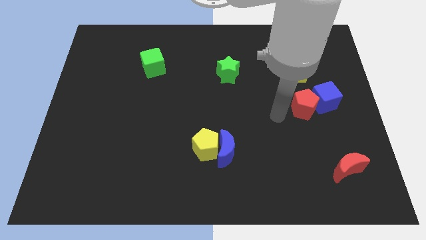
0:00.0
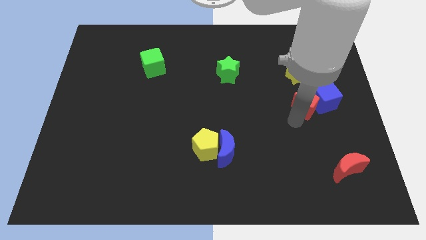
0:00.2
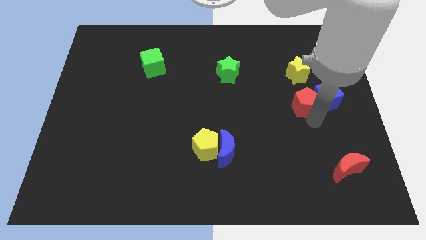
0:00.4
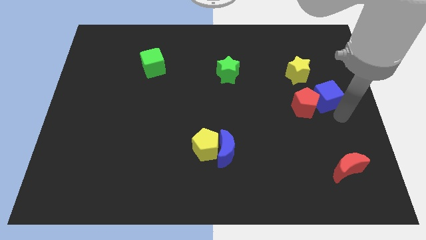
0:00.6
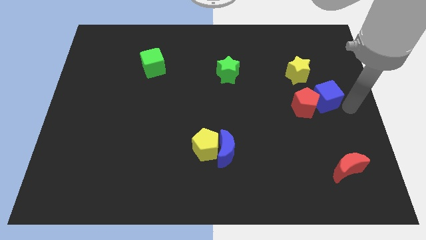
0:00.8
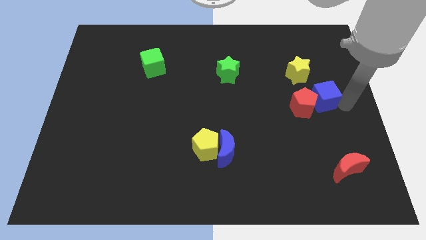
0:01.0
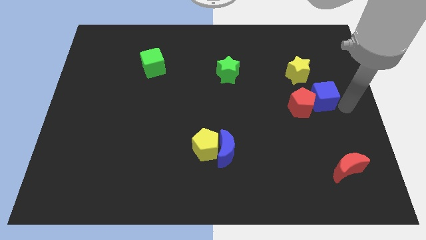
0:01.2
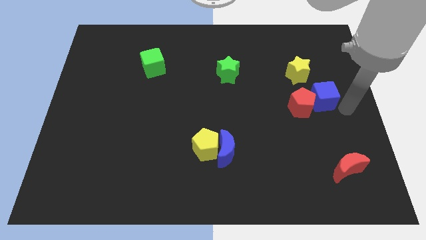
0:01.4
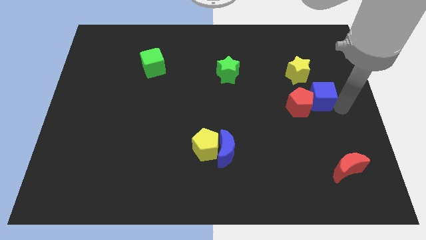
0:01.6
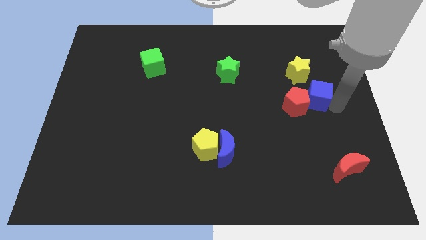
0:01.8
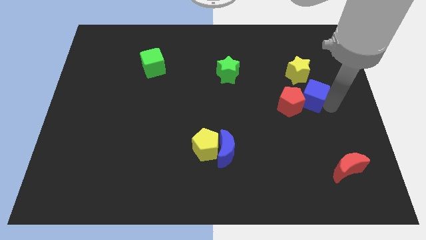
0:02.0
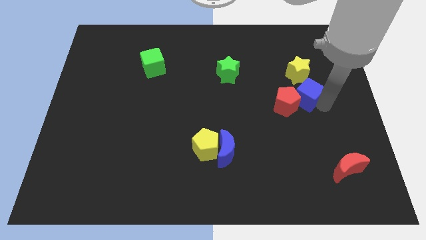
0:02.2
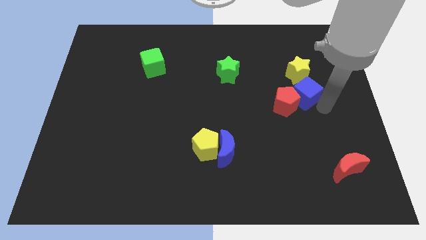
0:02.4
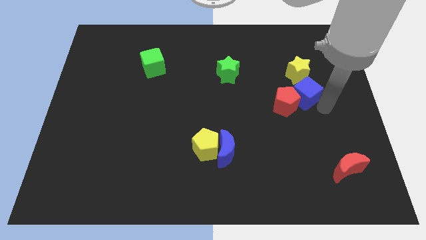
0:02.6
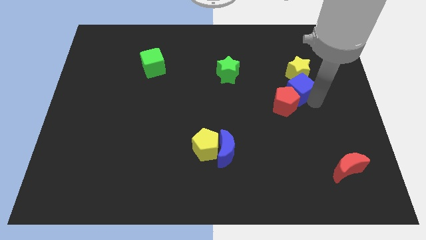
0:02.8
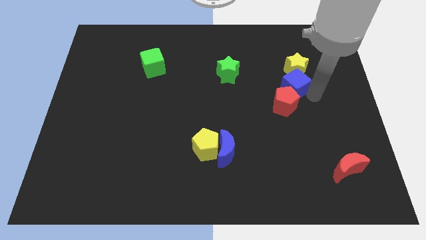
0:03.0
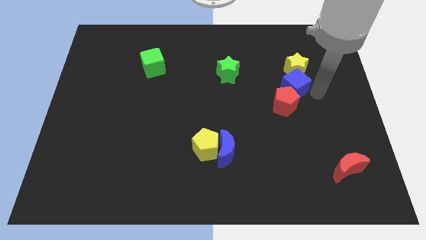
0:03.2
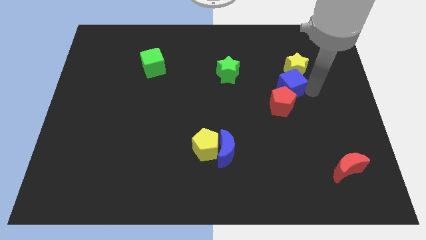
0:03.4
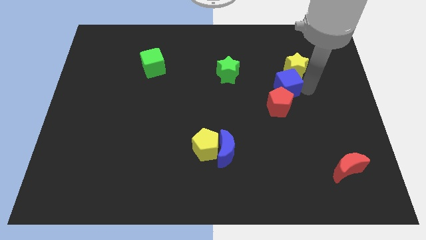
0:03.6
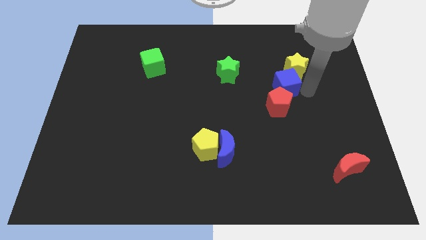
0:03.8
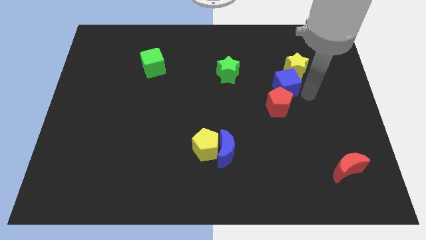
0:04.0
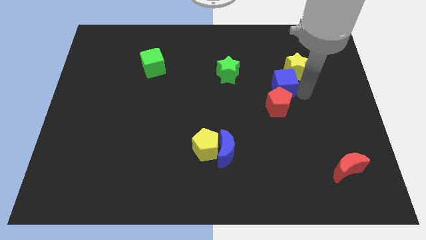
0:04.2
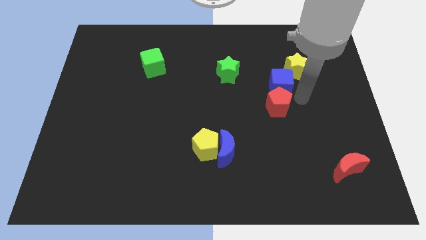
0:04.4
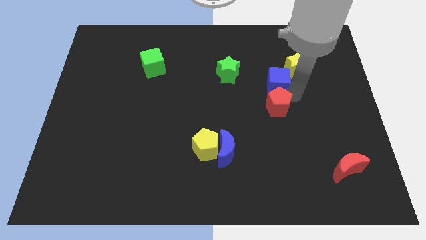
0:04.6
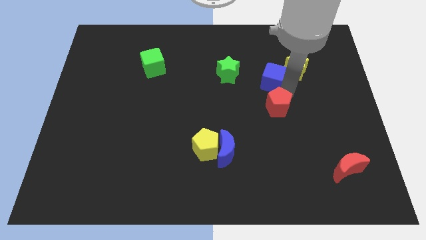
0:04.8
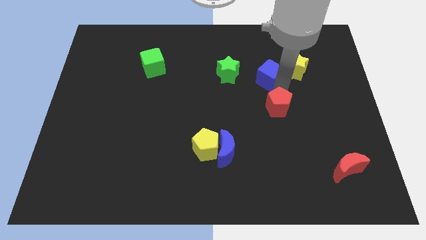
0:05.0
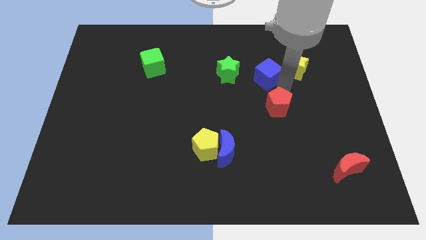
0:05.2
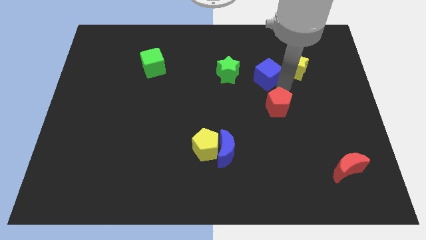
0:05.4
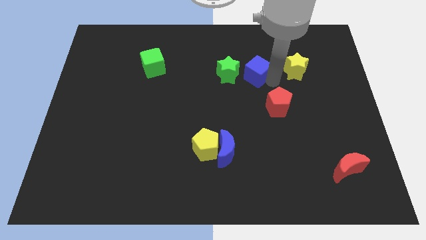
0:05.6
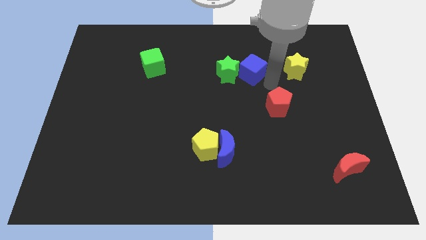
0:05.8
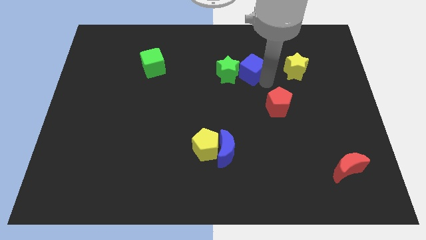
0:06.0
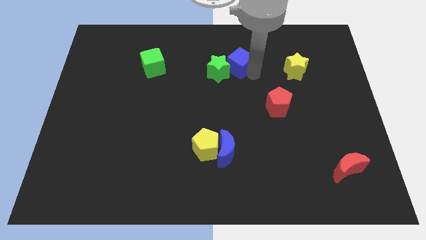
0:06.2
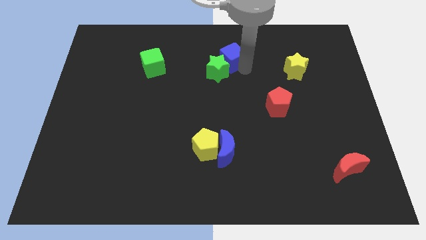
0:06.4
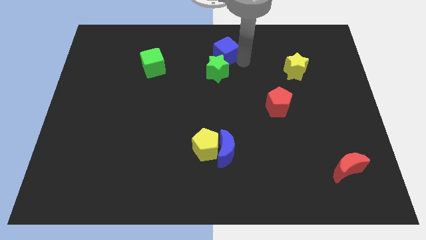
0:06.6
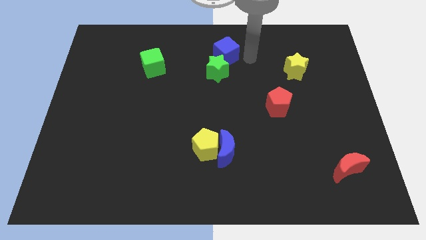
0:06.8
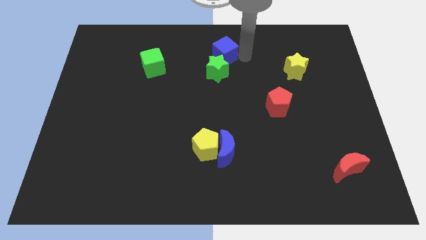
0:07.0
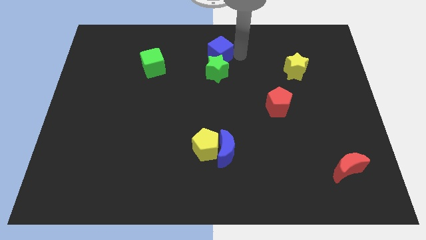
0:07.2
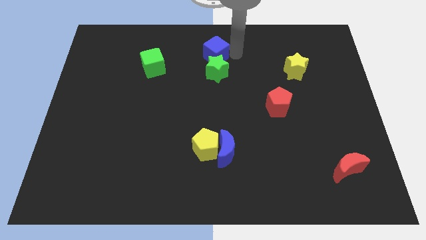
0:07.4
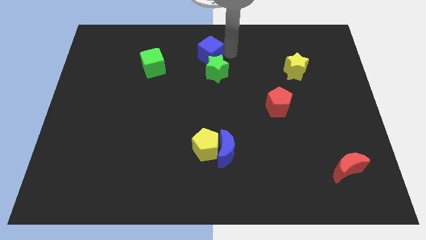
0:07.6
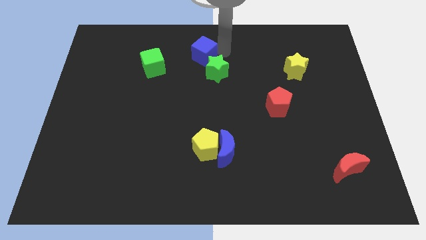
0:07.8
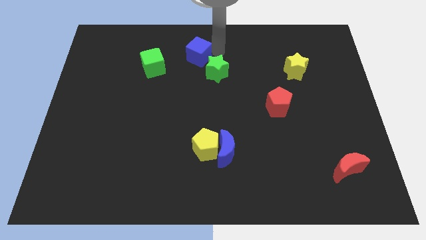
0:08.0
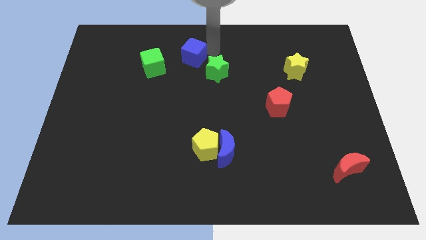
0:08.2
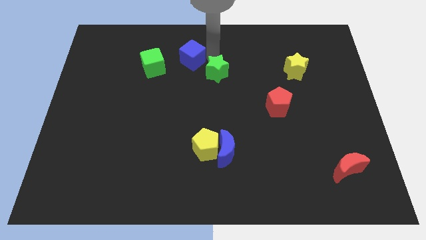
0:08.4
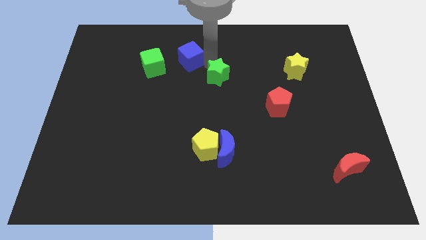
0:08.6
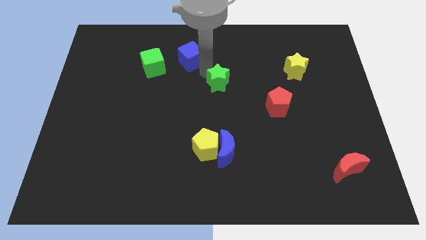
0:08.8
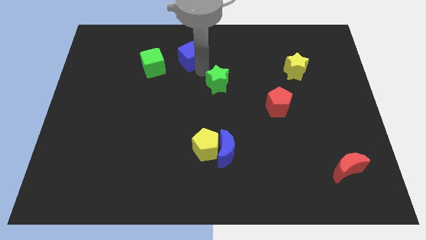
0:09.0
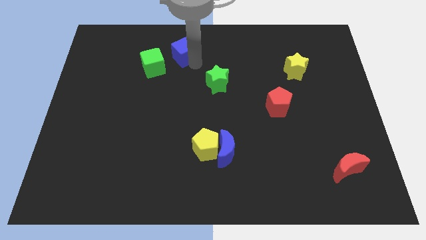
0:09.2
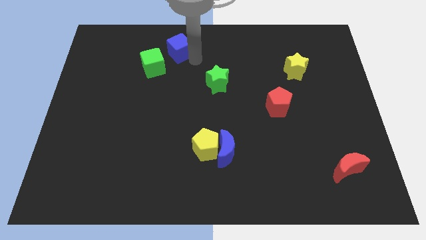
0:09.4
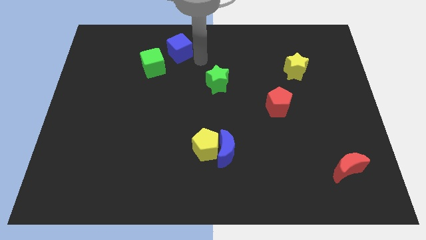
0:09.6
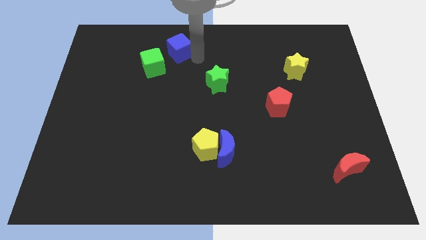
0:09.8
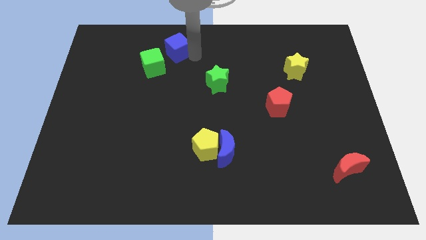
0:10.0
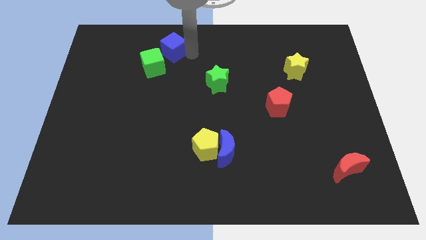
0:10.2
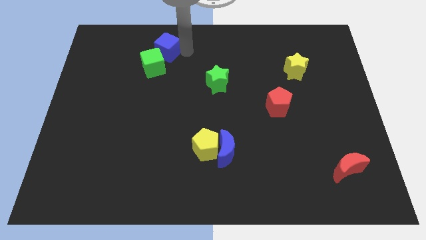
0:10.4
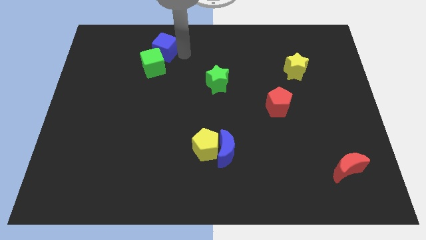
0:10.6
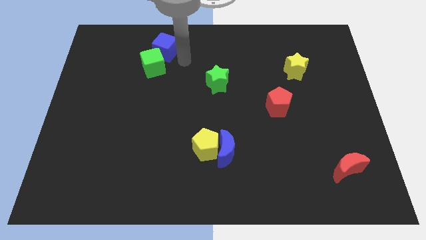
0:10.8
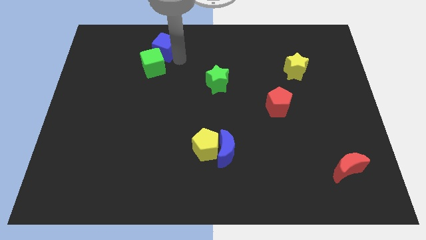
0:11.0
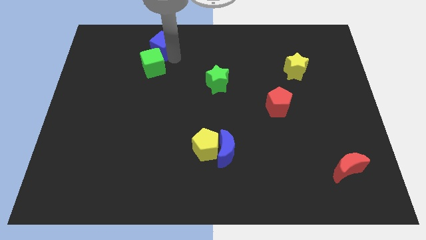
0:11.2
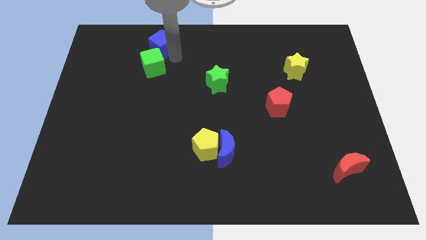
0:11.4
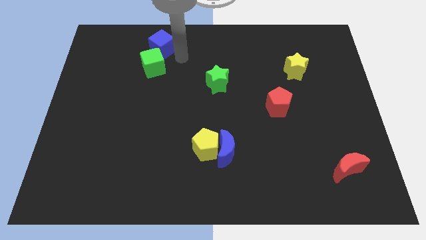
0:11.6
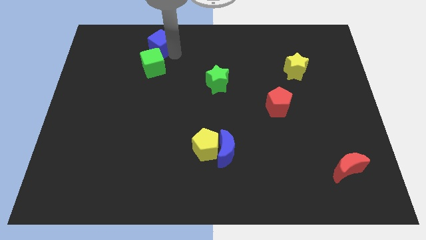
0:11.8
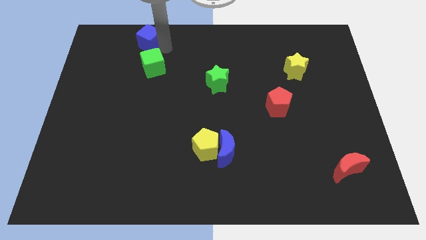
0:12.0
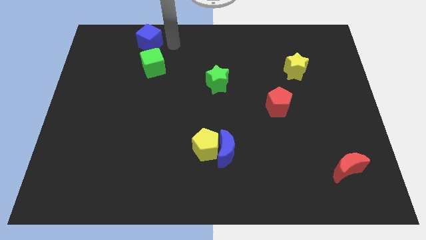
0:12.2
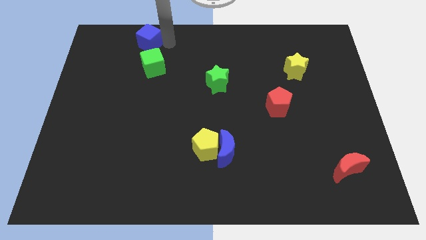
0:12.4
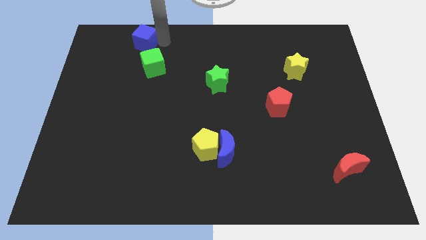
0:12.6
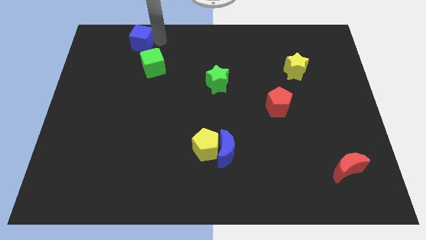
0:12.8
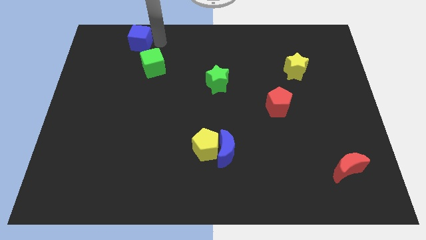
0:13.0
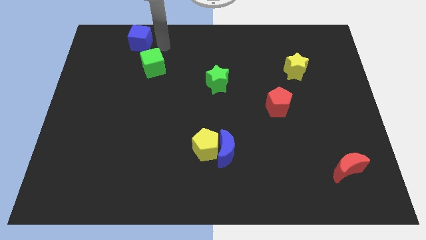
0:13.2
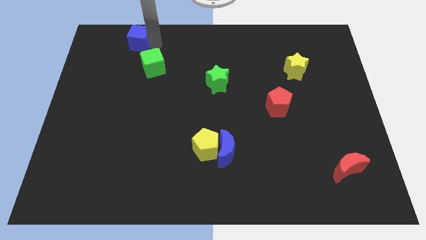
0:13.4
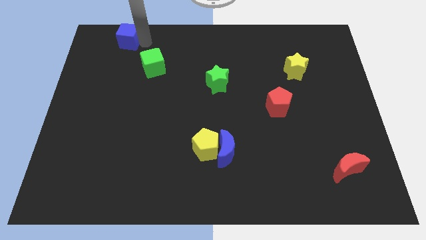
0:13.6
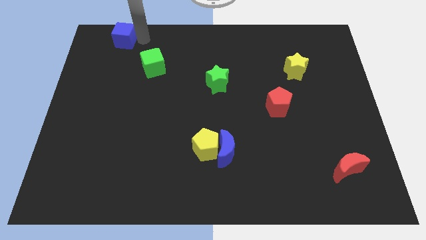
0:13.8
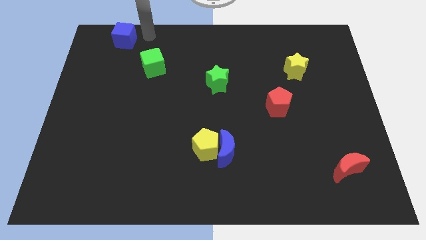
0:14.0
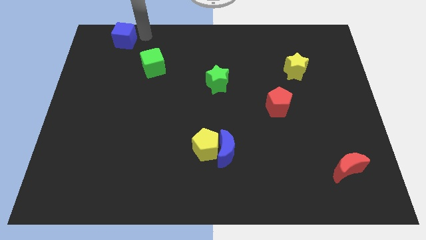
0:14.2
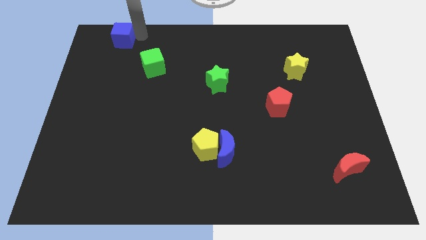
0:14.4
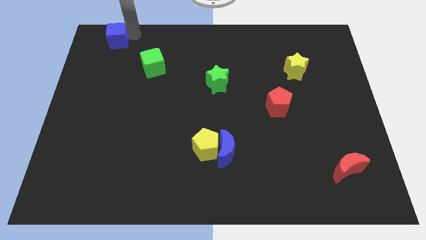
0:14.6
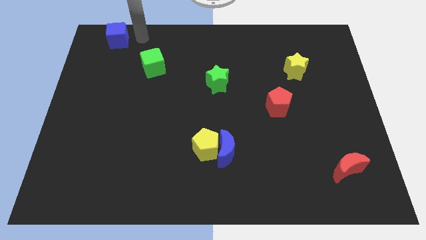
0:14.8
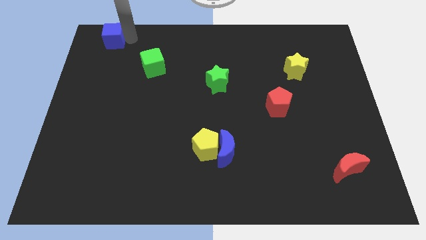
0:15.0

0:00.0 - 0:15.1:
push the blue cube to the top left
